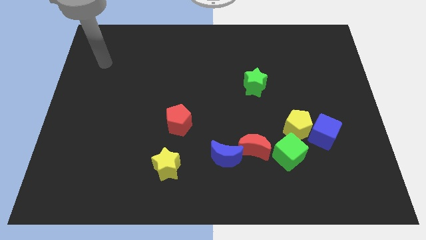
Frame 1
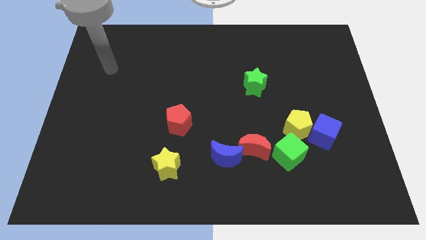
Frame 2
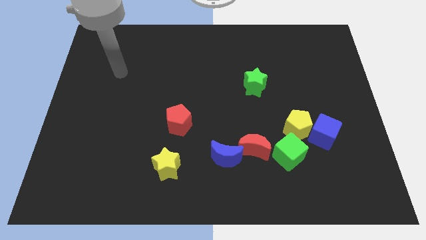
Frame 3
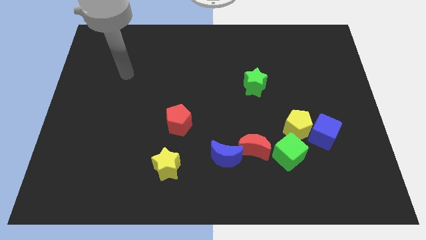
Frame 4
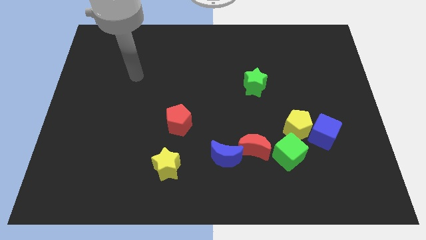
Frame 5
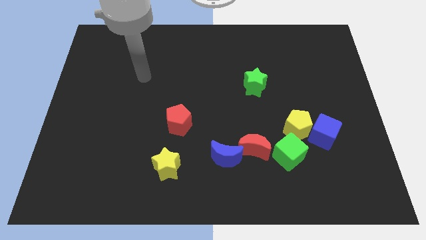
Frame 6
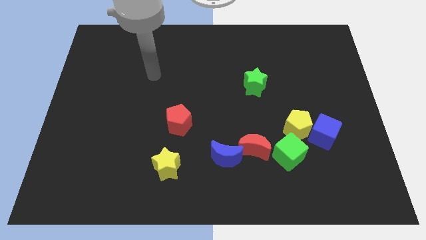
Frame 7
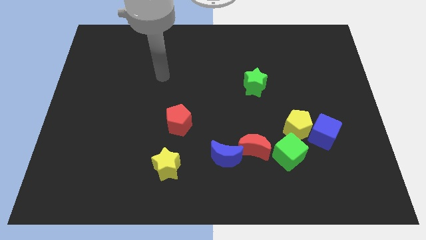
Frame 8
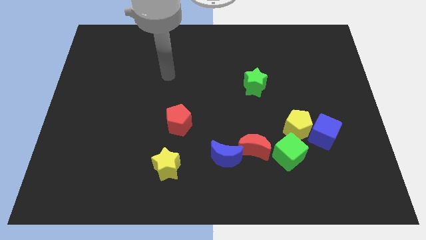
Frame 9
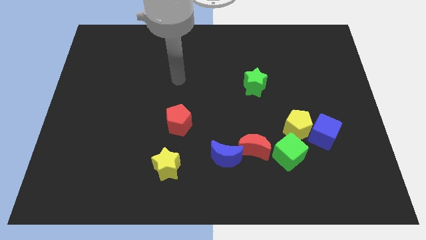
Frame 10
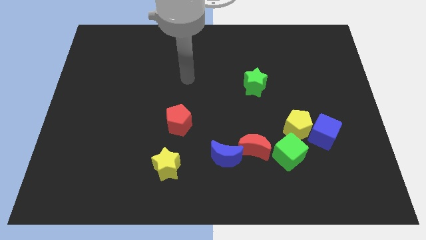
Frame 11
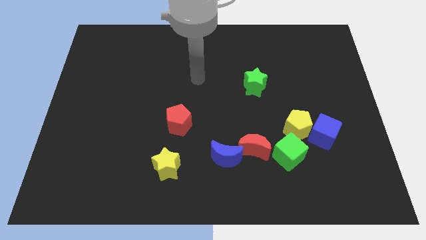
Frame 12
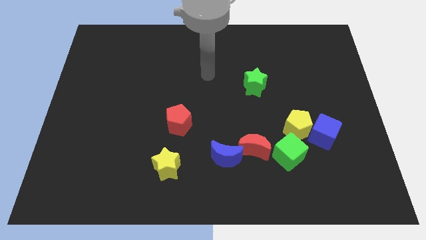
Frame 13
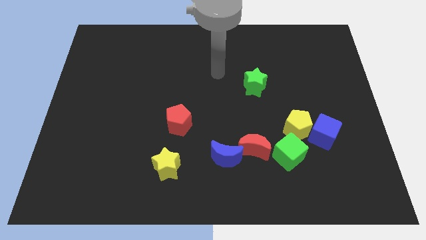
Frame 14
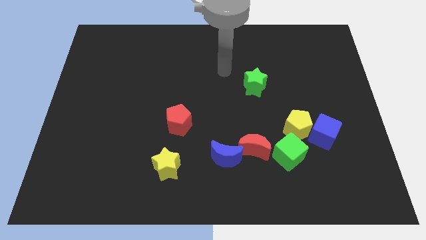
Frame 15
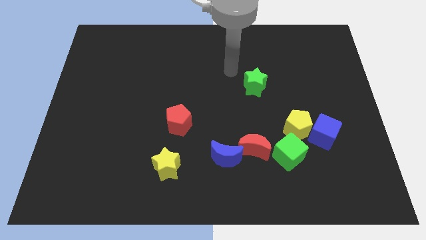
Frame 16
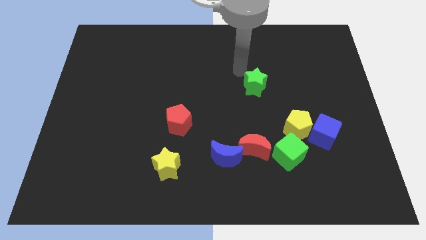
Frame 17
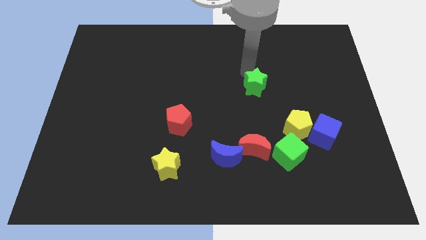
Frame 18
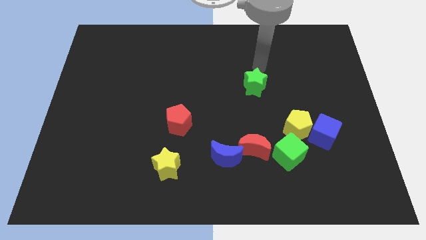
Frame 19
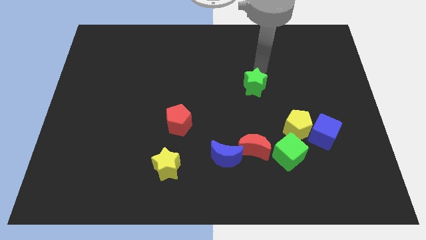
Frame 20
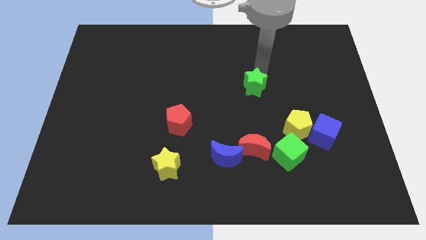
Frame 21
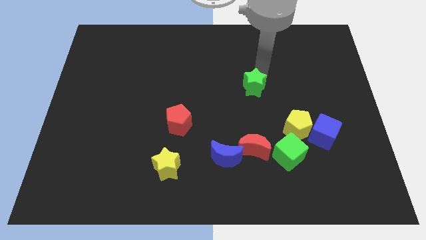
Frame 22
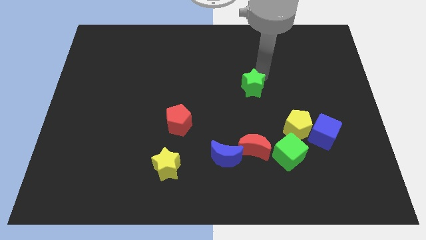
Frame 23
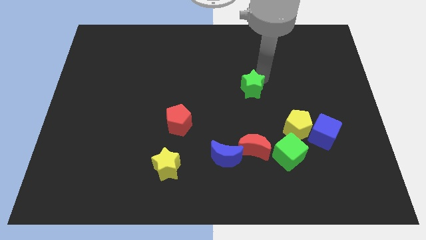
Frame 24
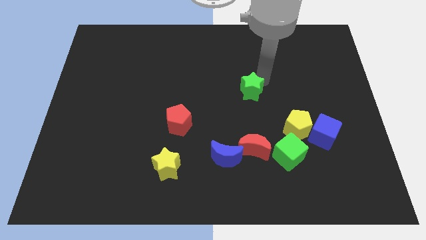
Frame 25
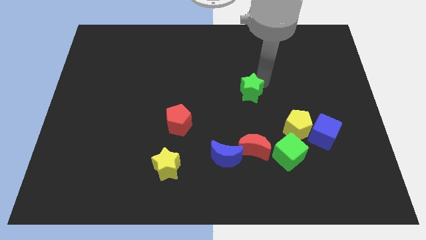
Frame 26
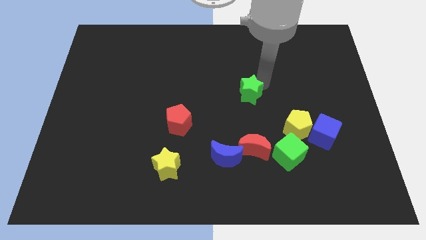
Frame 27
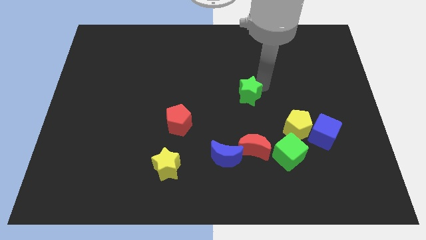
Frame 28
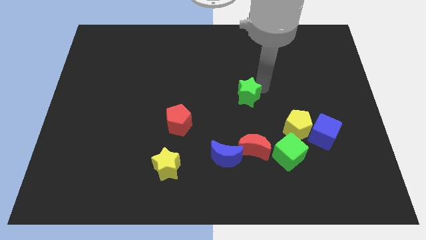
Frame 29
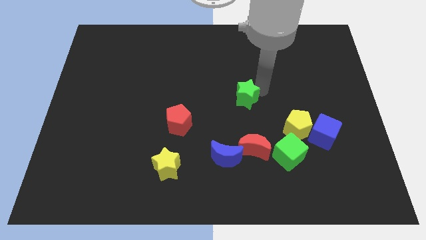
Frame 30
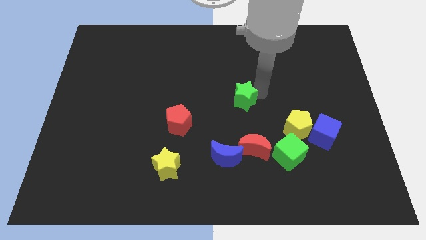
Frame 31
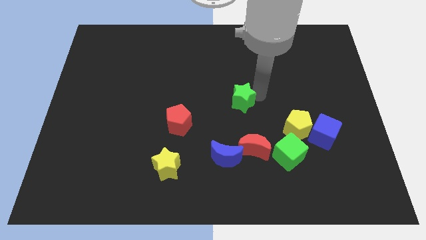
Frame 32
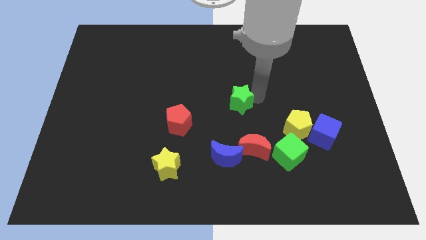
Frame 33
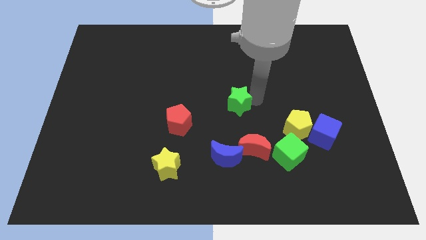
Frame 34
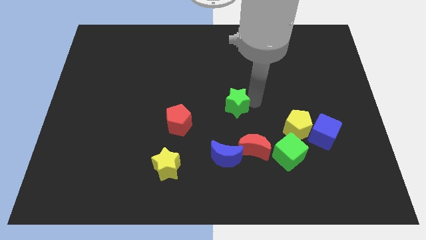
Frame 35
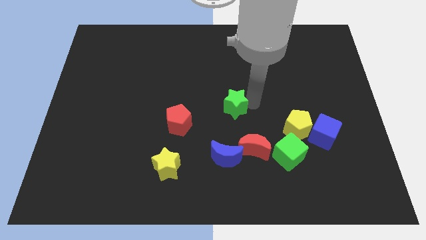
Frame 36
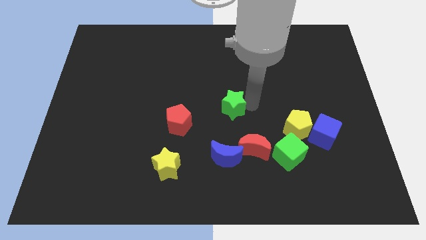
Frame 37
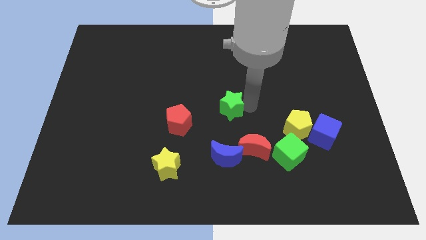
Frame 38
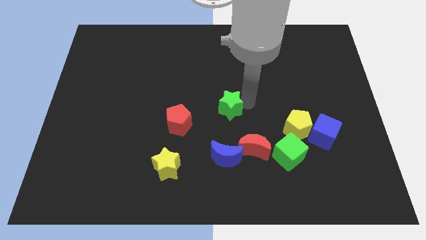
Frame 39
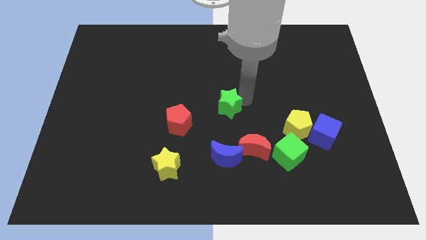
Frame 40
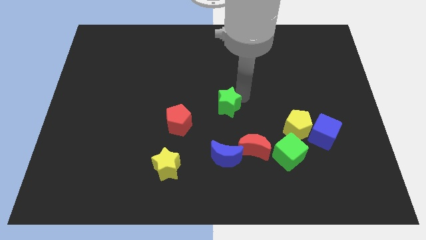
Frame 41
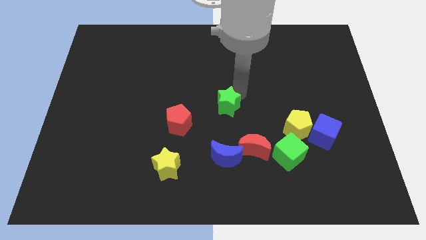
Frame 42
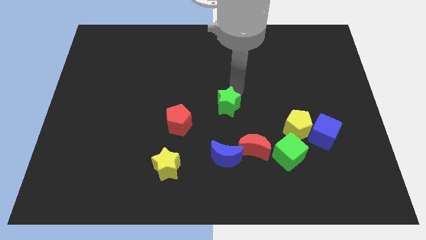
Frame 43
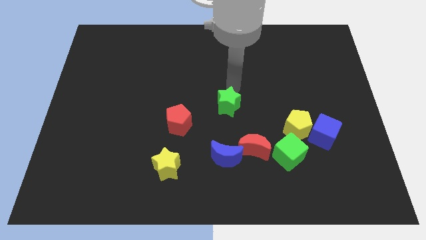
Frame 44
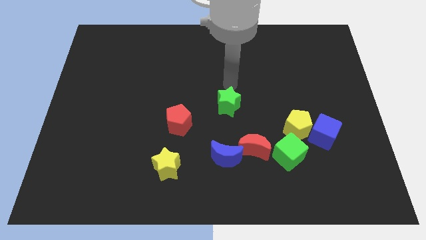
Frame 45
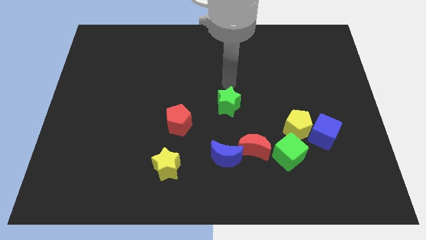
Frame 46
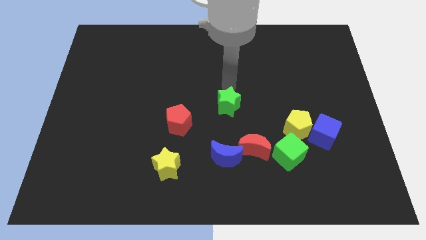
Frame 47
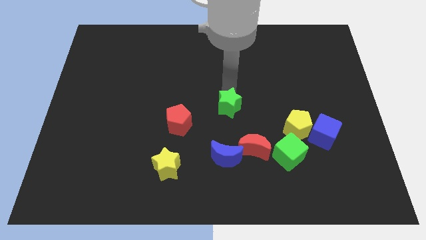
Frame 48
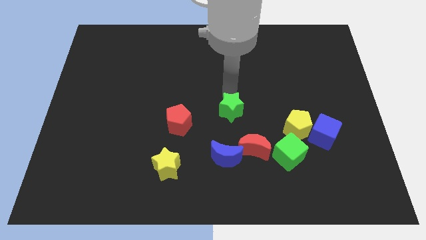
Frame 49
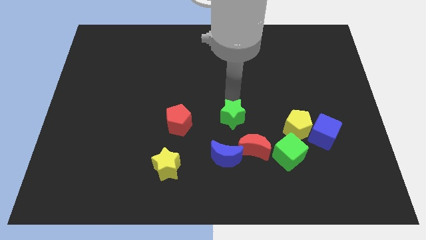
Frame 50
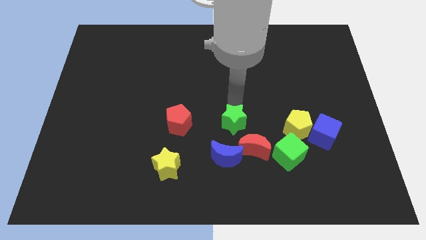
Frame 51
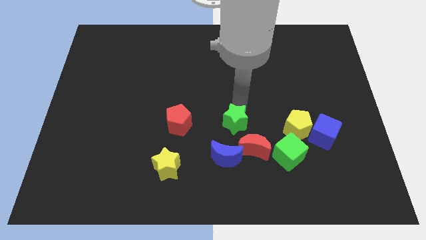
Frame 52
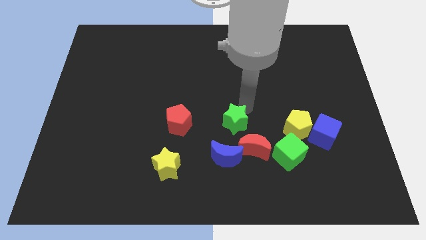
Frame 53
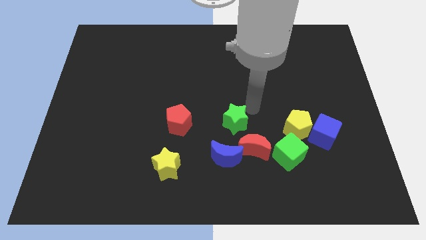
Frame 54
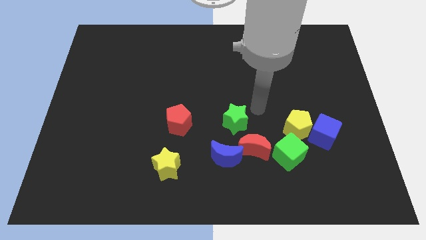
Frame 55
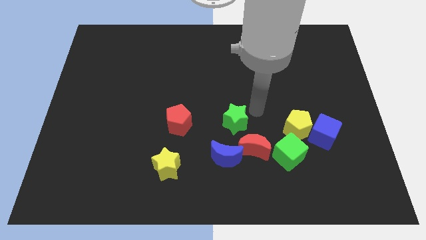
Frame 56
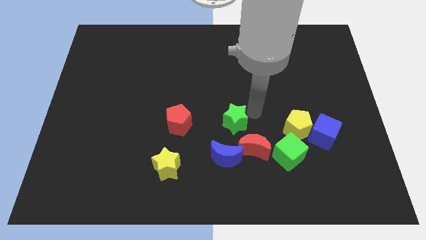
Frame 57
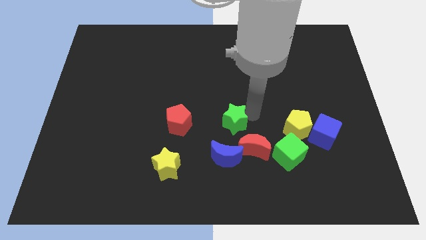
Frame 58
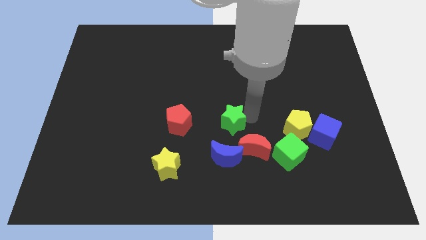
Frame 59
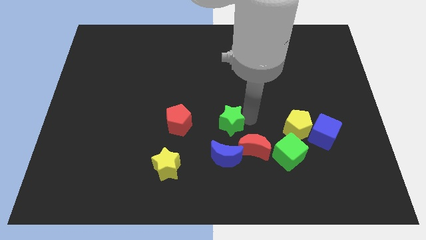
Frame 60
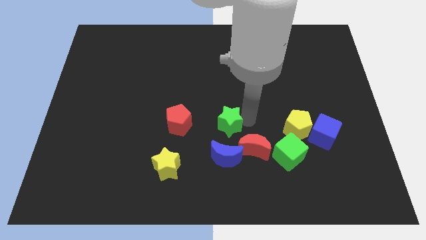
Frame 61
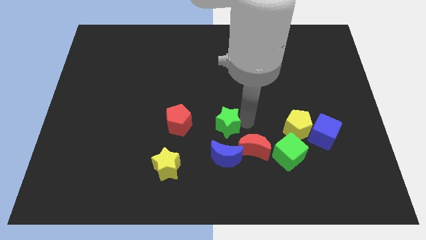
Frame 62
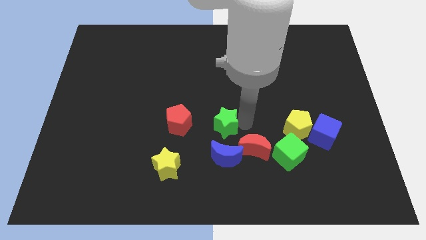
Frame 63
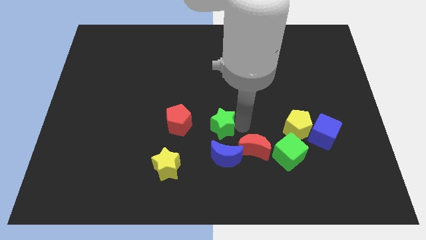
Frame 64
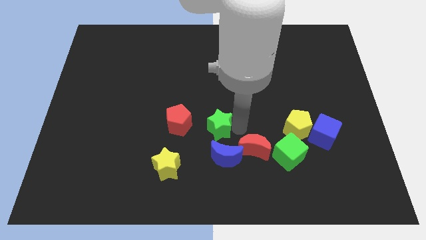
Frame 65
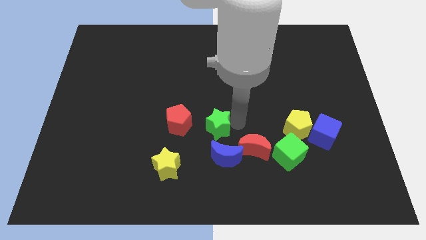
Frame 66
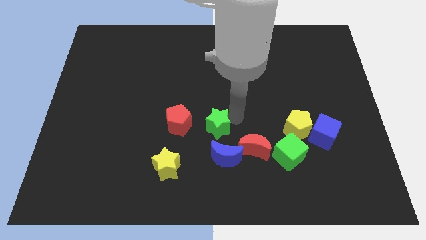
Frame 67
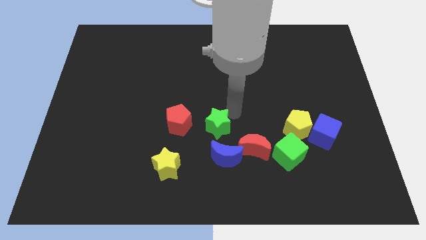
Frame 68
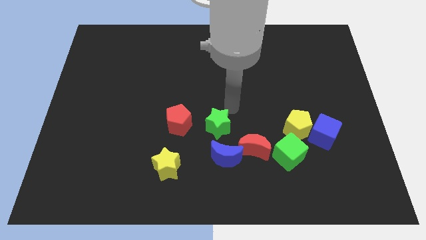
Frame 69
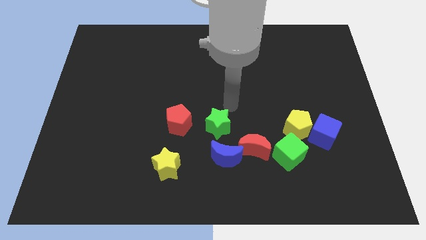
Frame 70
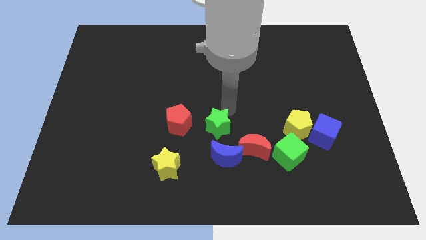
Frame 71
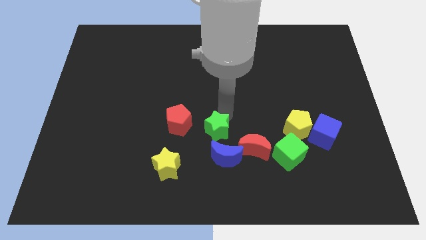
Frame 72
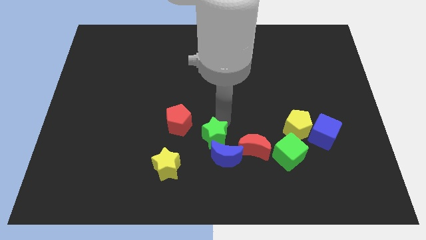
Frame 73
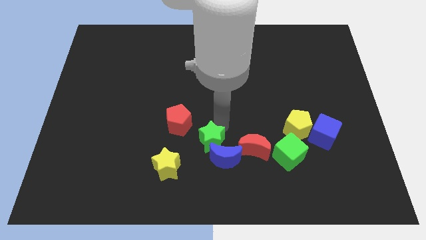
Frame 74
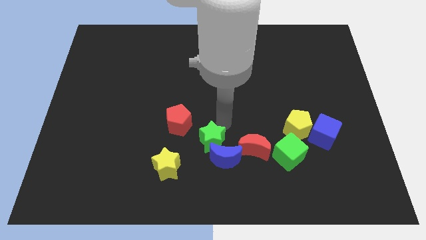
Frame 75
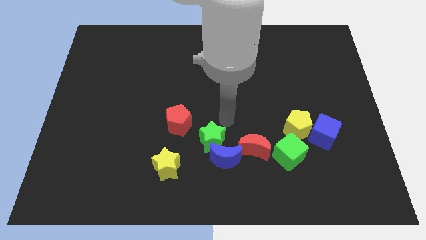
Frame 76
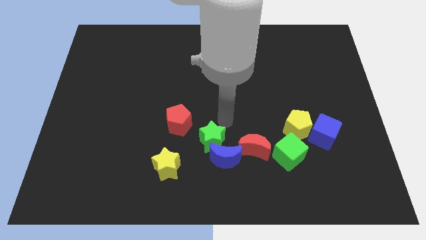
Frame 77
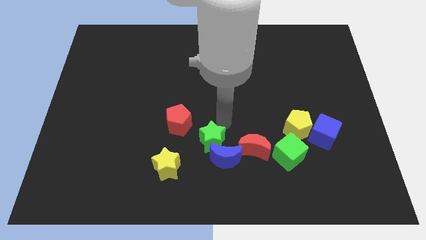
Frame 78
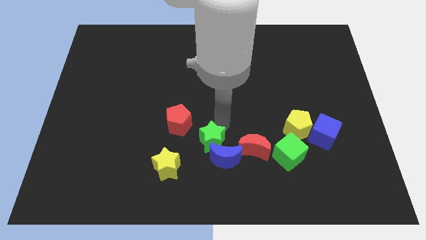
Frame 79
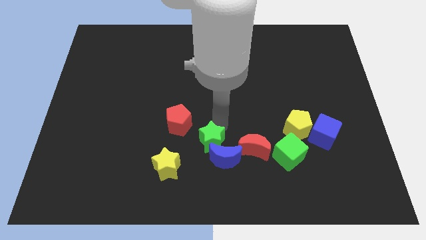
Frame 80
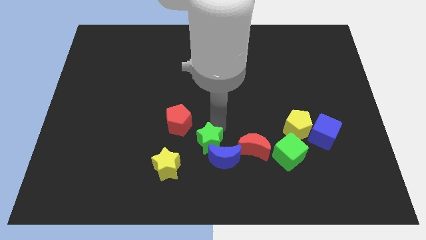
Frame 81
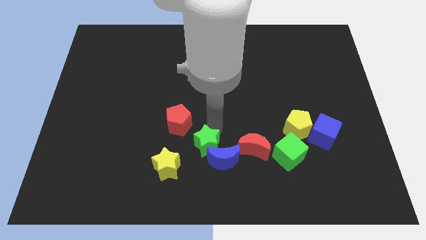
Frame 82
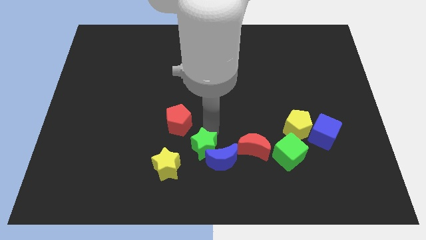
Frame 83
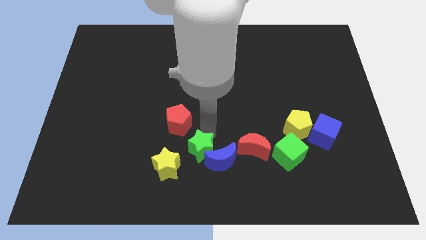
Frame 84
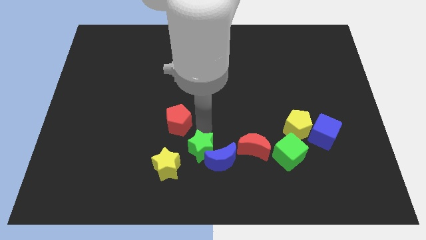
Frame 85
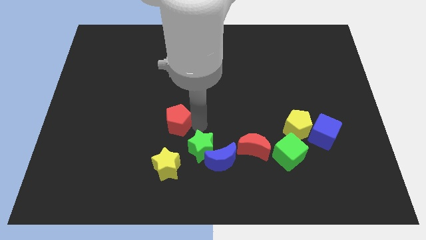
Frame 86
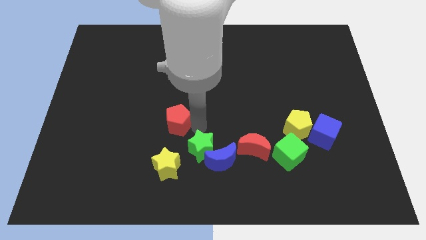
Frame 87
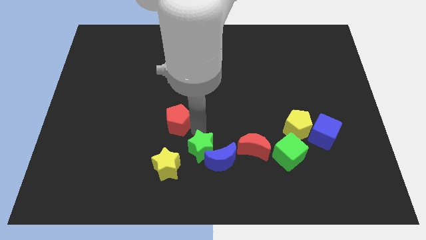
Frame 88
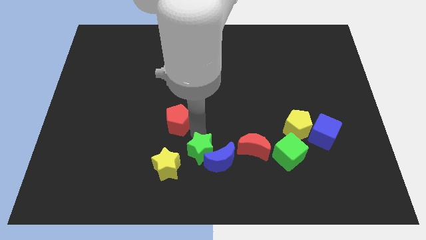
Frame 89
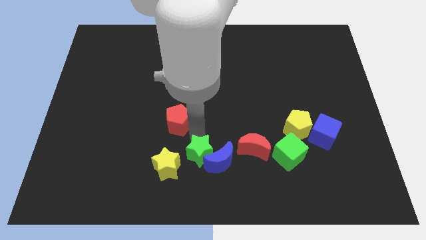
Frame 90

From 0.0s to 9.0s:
push the green star to the bottom
